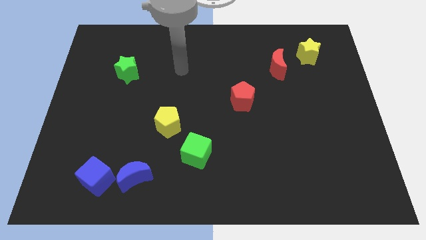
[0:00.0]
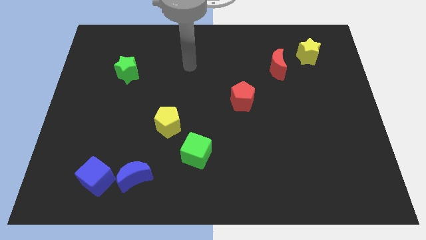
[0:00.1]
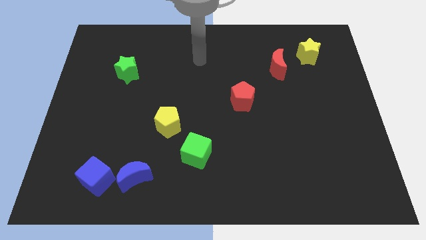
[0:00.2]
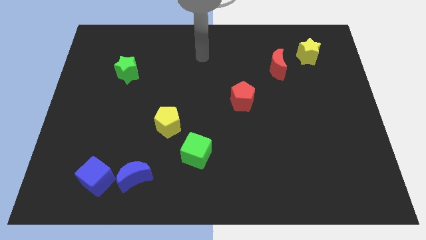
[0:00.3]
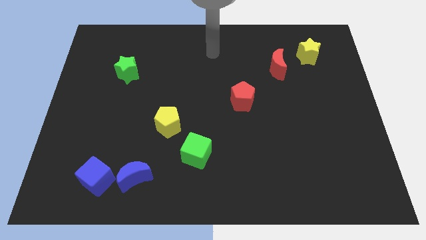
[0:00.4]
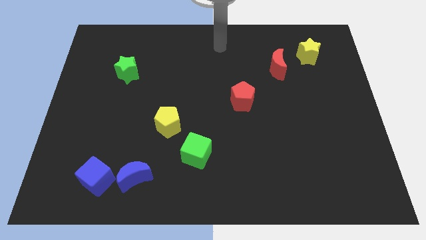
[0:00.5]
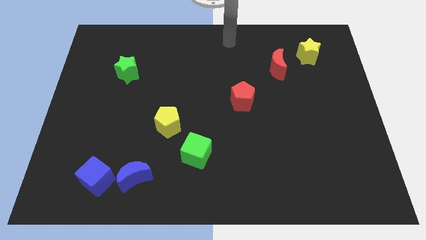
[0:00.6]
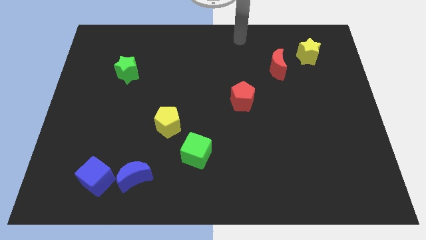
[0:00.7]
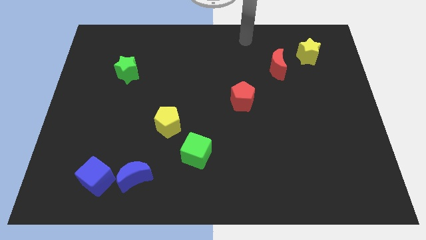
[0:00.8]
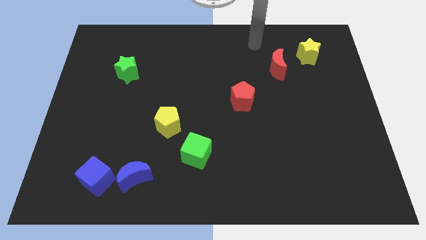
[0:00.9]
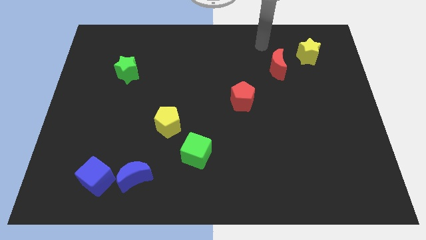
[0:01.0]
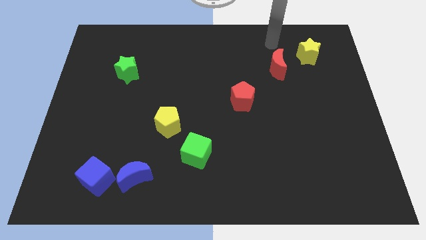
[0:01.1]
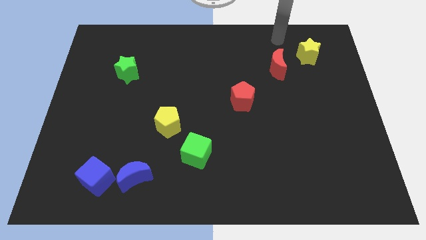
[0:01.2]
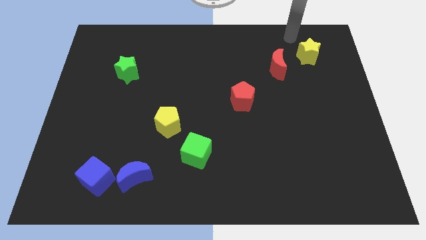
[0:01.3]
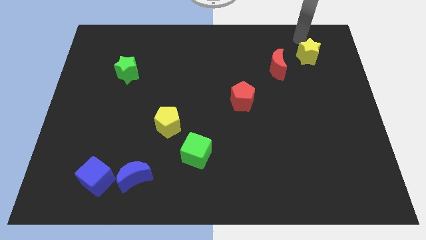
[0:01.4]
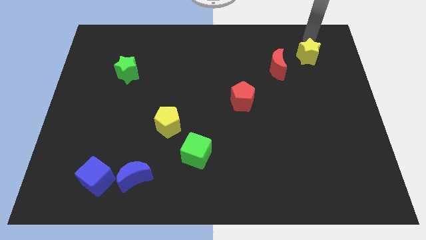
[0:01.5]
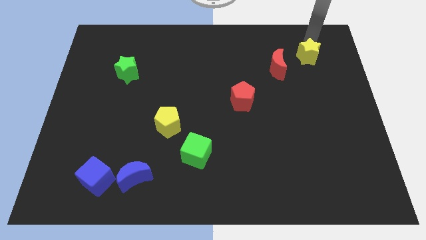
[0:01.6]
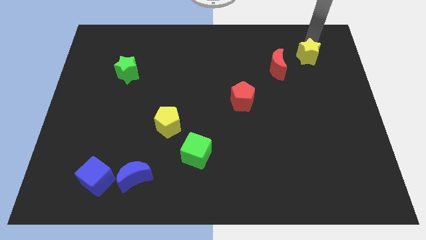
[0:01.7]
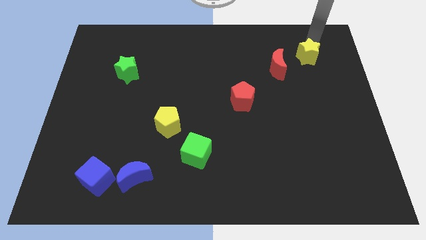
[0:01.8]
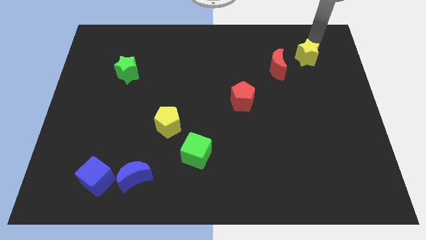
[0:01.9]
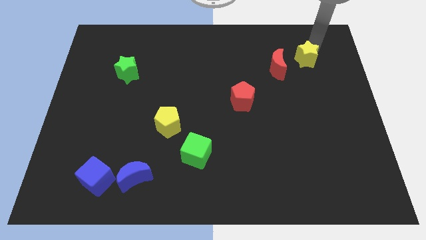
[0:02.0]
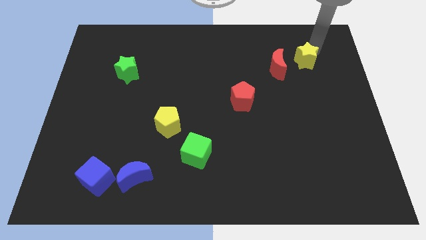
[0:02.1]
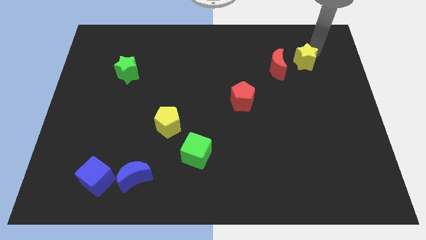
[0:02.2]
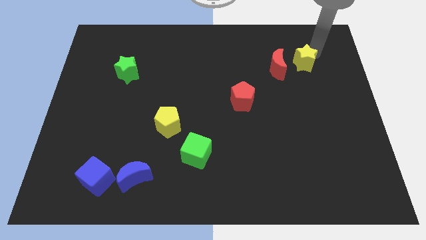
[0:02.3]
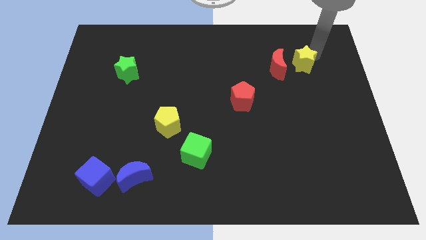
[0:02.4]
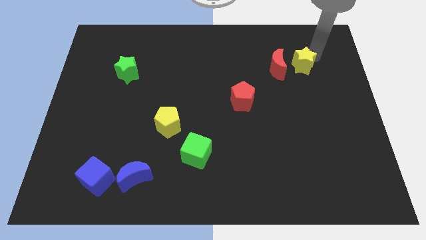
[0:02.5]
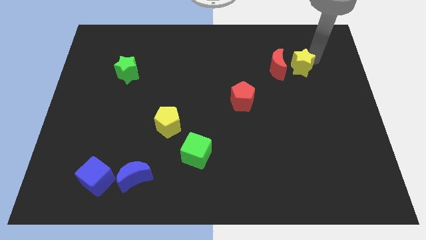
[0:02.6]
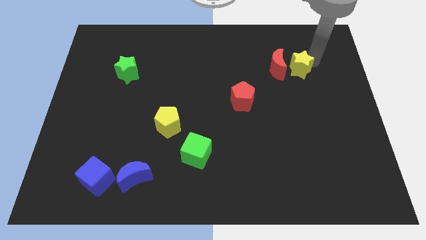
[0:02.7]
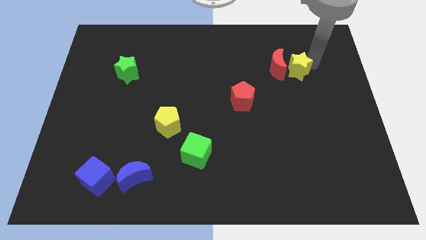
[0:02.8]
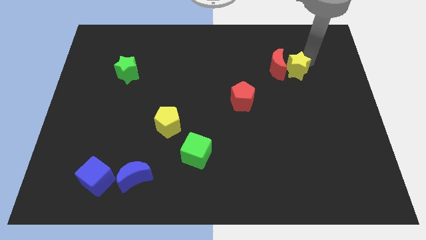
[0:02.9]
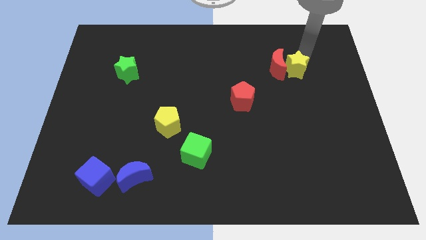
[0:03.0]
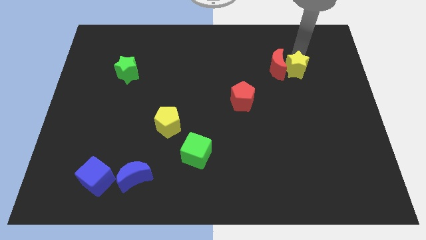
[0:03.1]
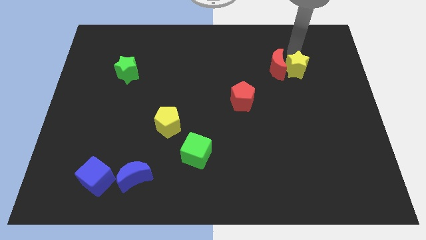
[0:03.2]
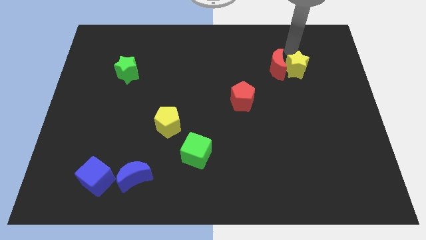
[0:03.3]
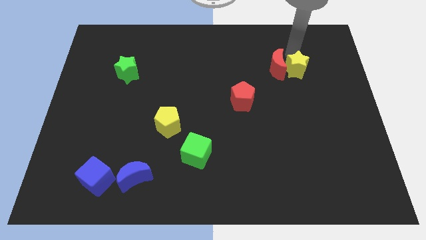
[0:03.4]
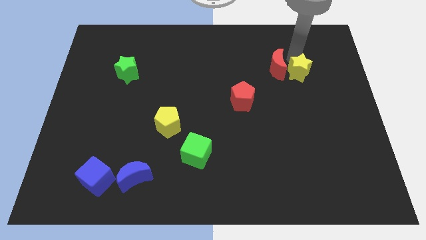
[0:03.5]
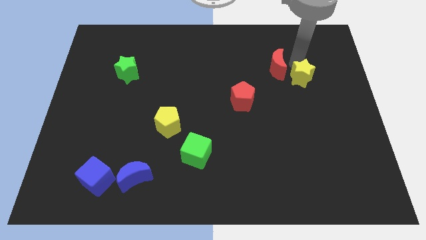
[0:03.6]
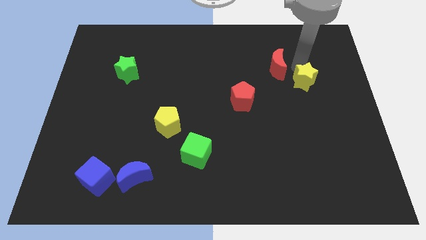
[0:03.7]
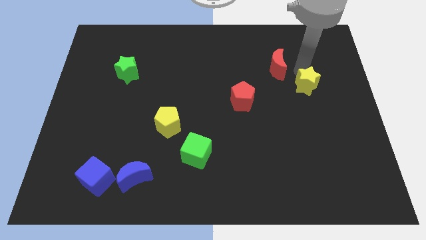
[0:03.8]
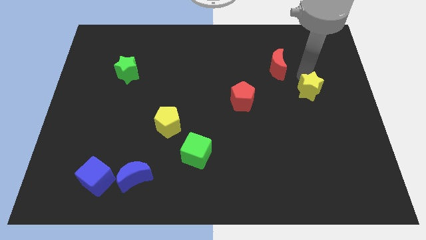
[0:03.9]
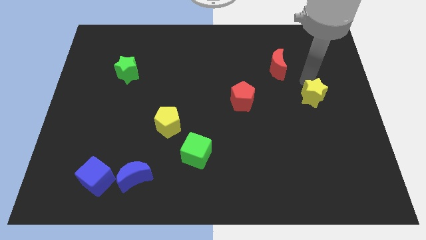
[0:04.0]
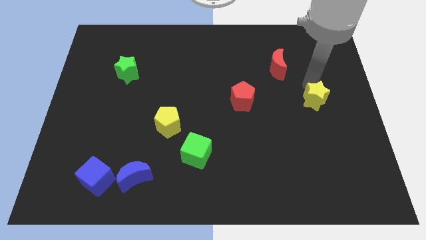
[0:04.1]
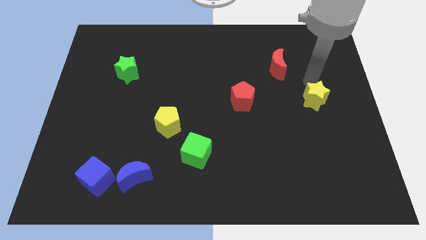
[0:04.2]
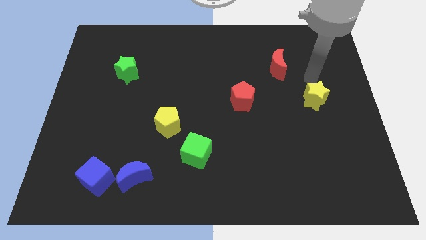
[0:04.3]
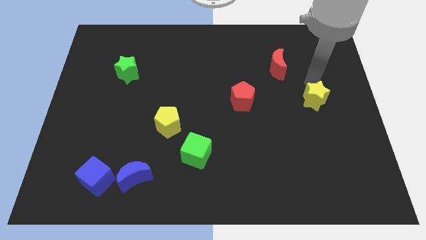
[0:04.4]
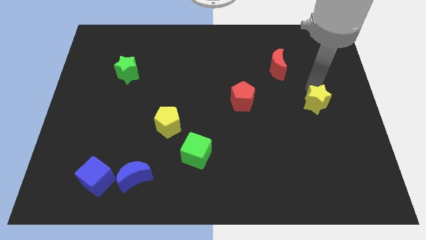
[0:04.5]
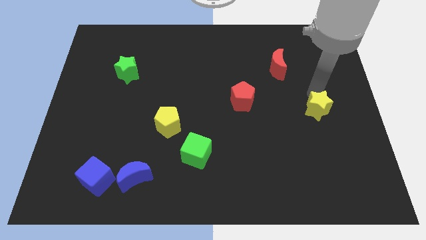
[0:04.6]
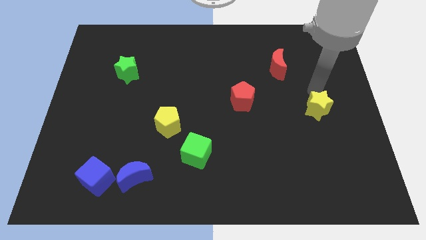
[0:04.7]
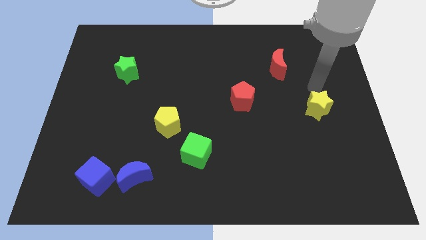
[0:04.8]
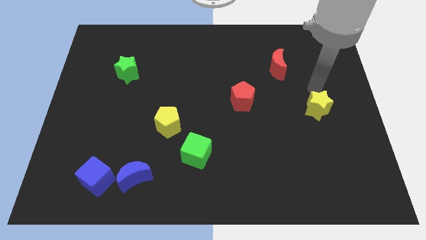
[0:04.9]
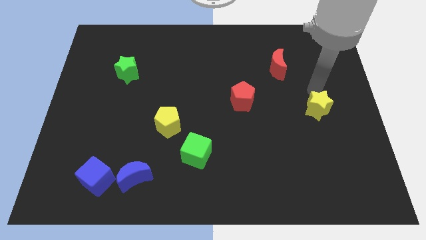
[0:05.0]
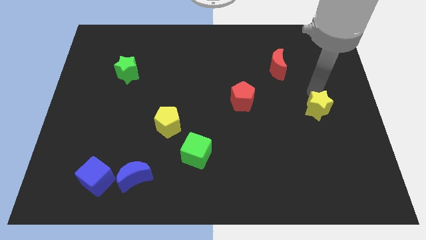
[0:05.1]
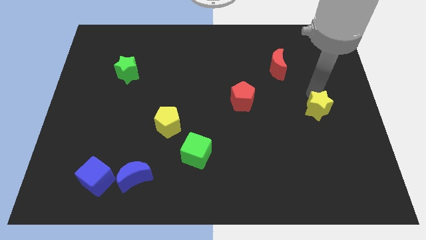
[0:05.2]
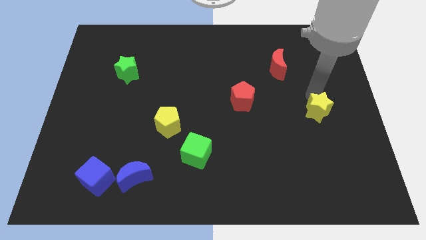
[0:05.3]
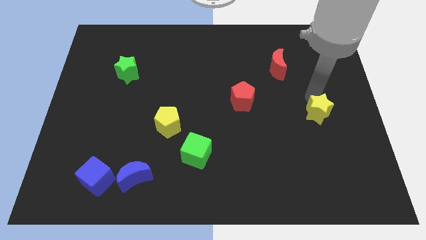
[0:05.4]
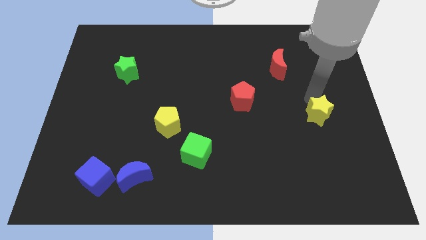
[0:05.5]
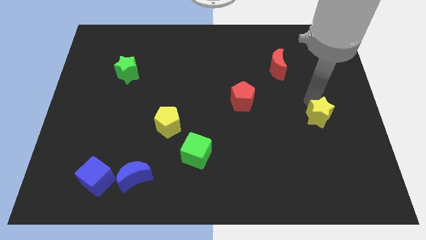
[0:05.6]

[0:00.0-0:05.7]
move the yellow star down

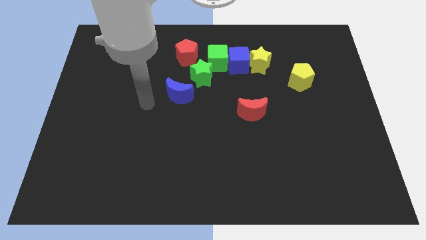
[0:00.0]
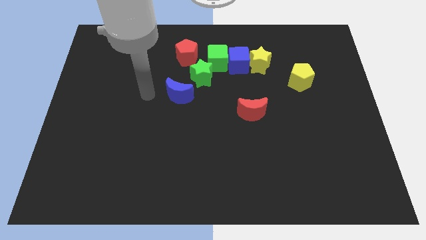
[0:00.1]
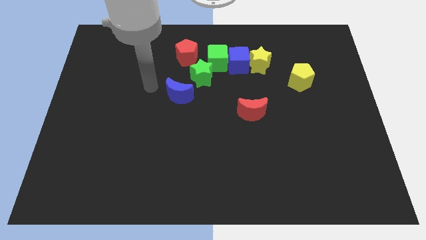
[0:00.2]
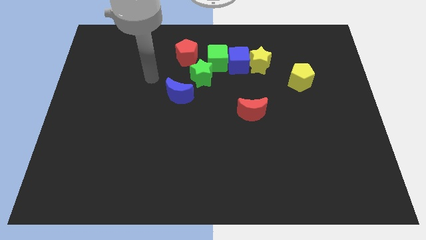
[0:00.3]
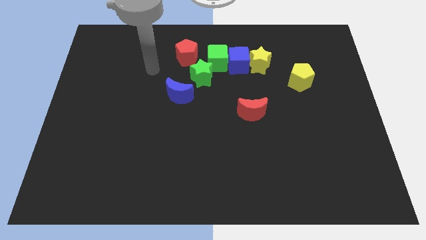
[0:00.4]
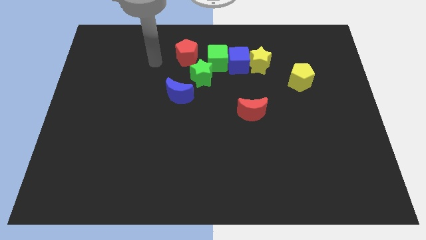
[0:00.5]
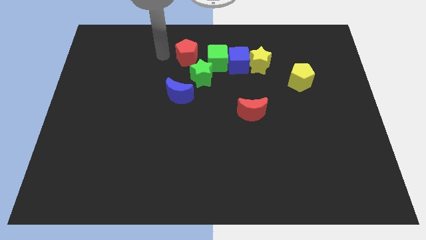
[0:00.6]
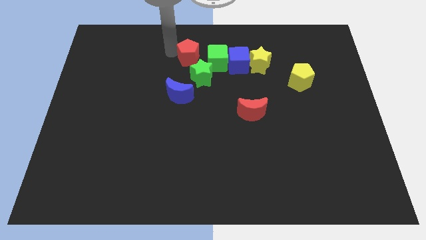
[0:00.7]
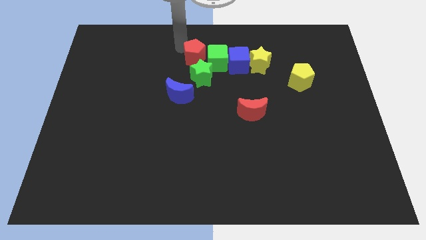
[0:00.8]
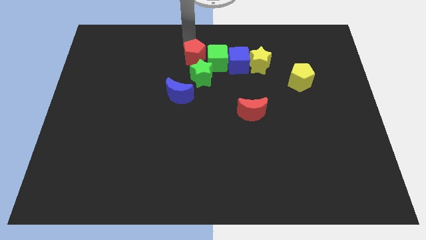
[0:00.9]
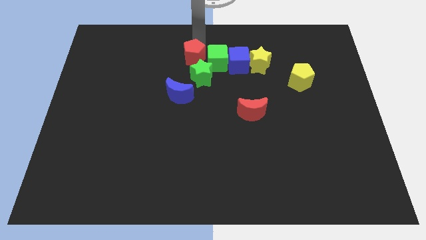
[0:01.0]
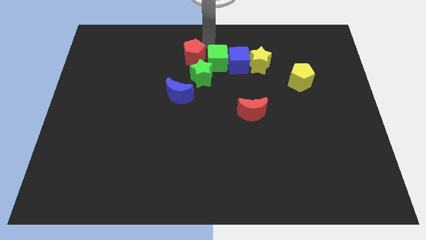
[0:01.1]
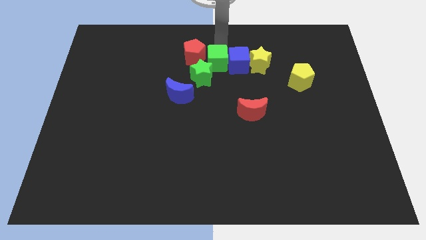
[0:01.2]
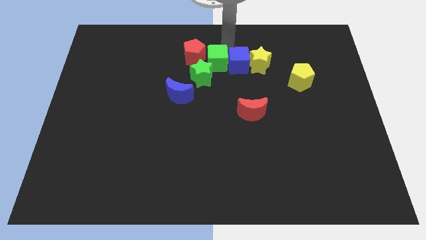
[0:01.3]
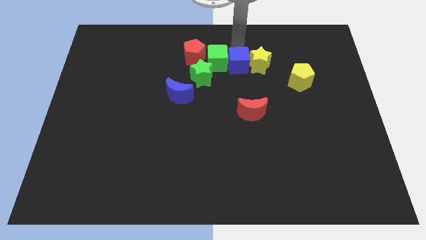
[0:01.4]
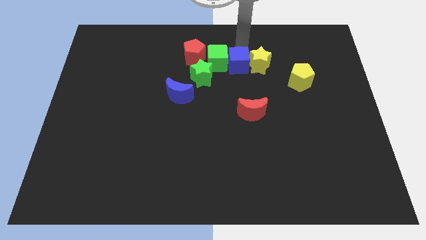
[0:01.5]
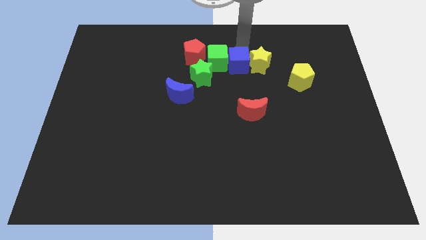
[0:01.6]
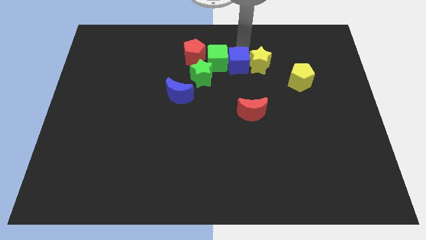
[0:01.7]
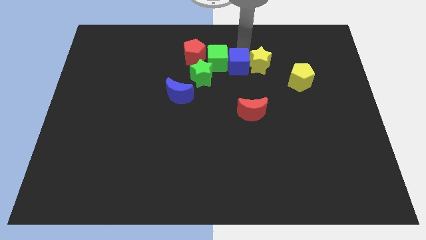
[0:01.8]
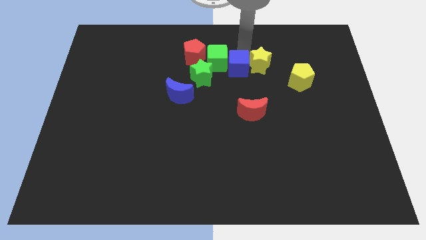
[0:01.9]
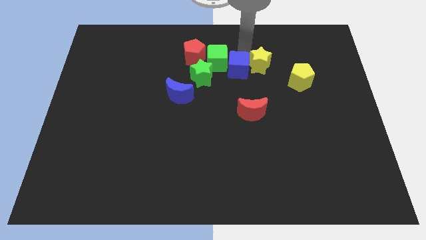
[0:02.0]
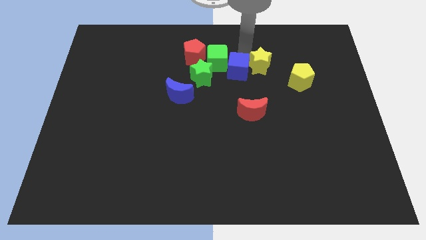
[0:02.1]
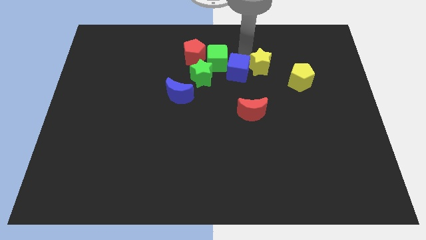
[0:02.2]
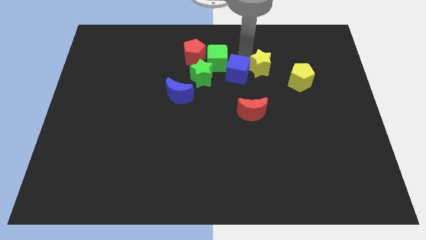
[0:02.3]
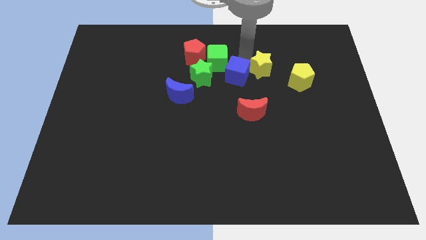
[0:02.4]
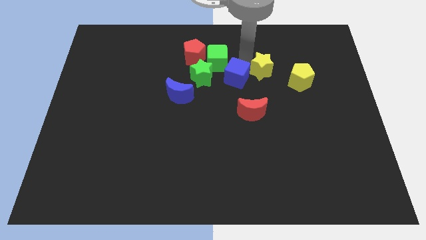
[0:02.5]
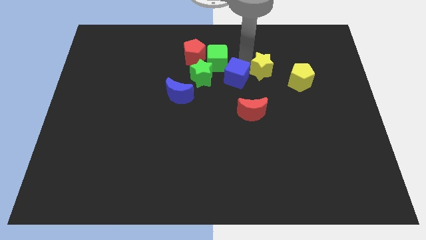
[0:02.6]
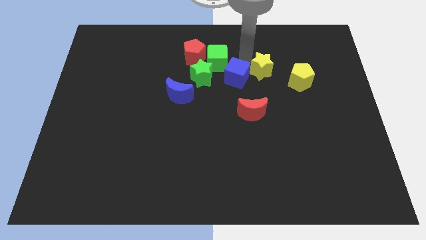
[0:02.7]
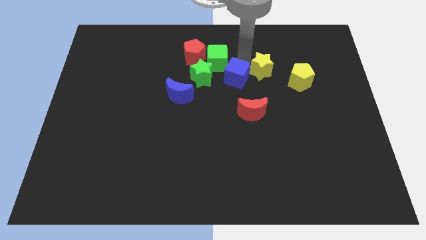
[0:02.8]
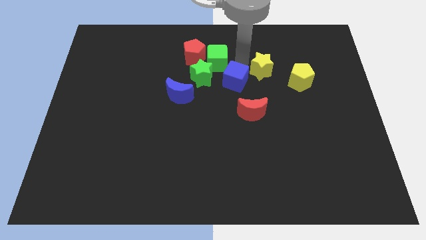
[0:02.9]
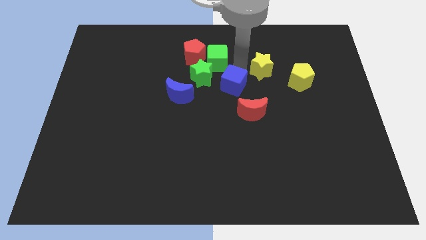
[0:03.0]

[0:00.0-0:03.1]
slightly push the blue cube downwards
